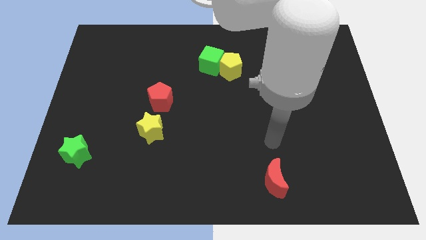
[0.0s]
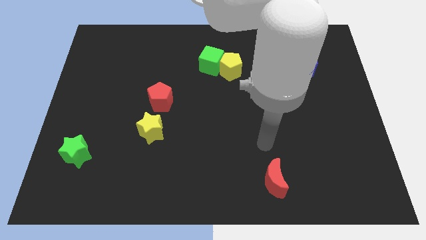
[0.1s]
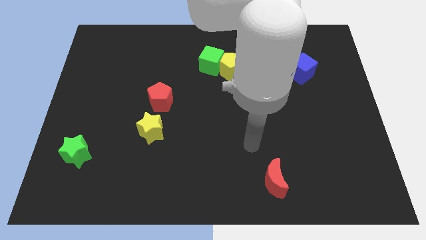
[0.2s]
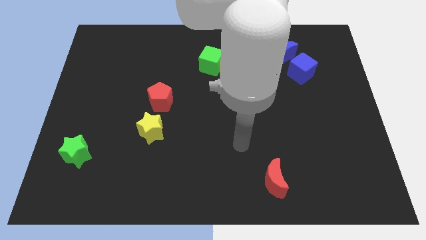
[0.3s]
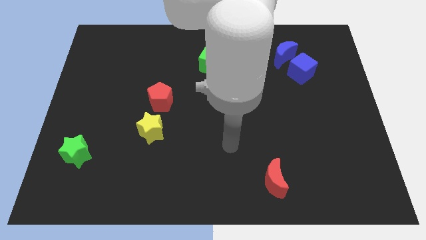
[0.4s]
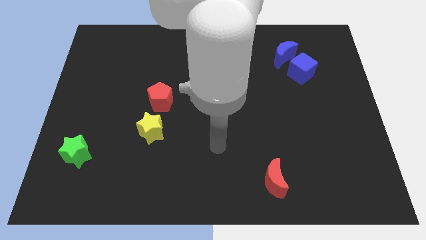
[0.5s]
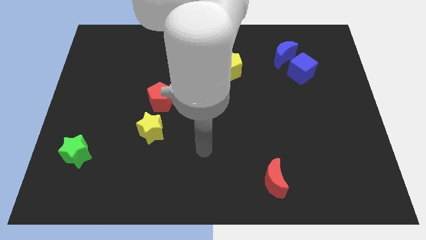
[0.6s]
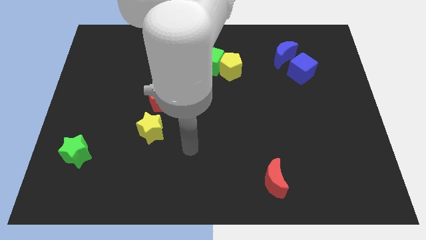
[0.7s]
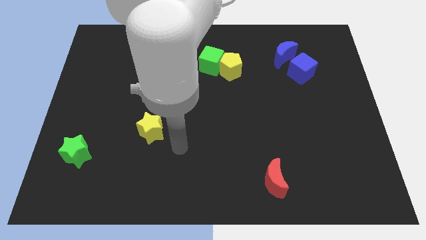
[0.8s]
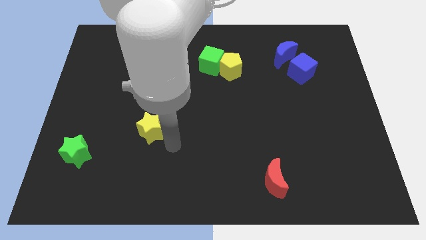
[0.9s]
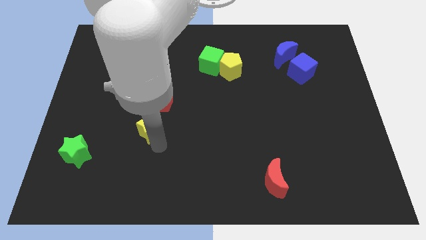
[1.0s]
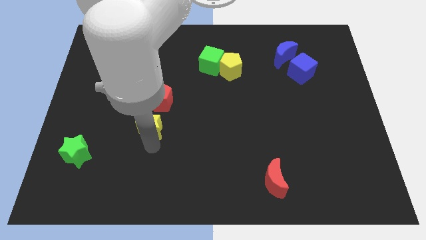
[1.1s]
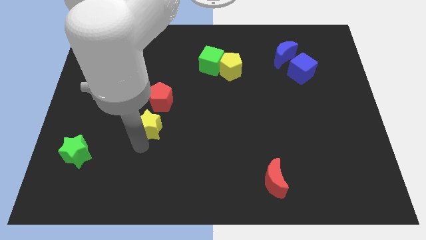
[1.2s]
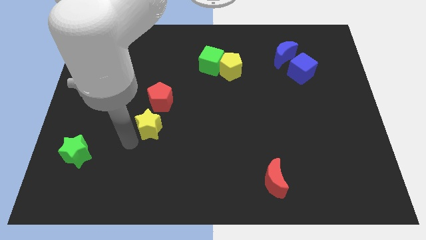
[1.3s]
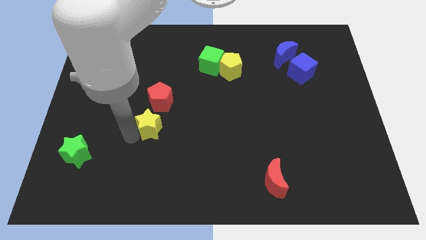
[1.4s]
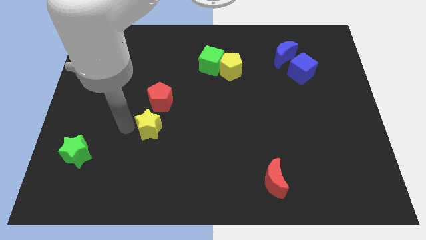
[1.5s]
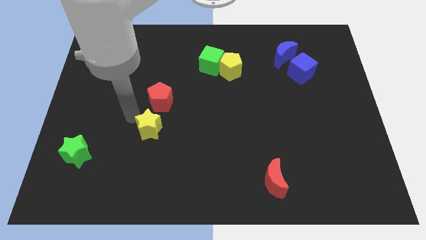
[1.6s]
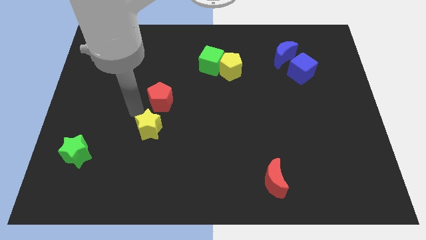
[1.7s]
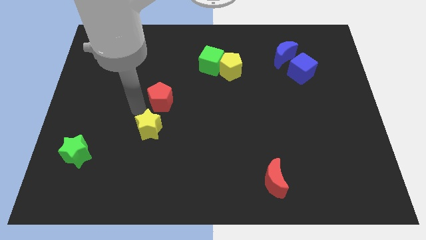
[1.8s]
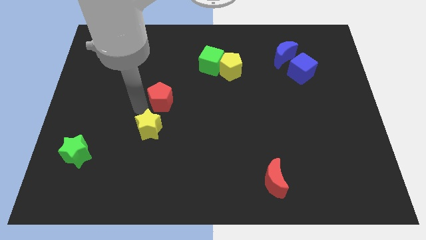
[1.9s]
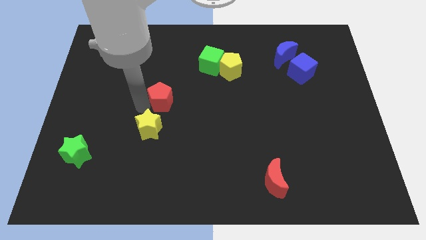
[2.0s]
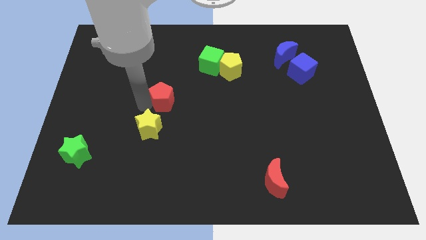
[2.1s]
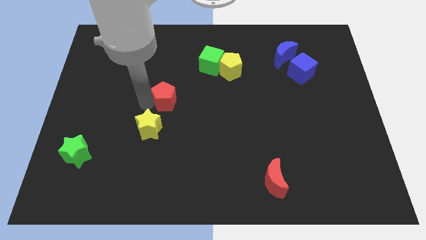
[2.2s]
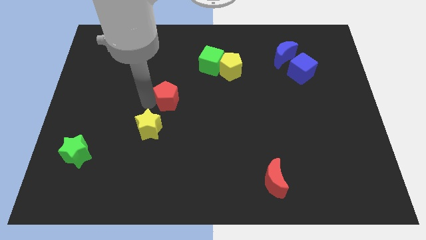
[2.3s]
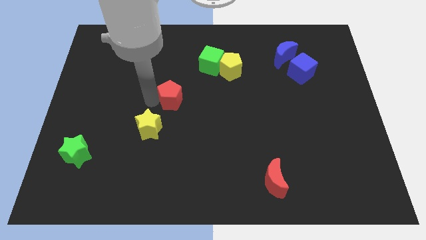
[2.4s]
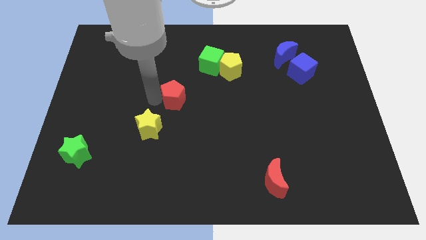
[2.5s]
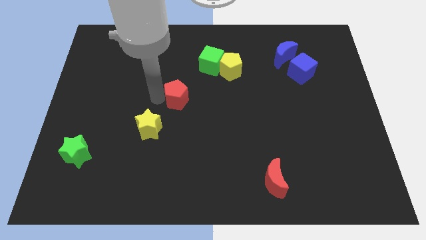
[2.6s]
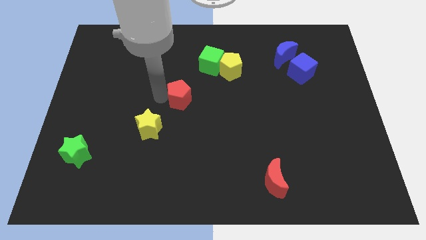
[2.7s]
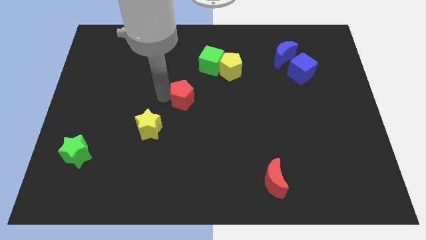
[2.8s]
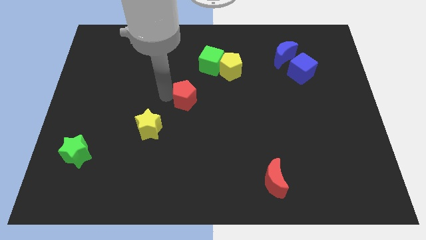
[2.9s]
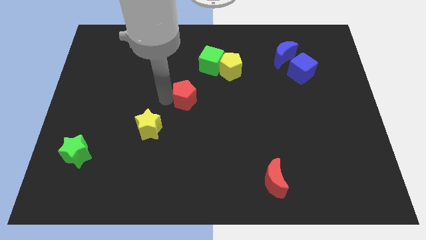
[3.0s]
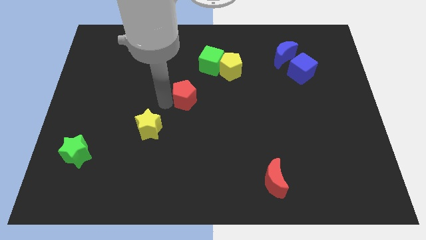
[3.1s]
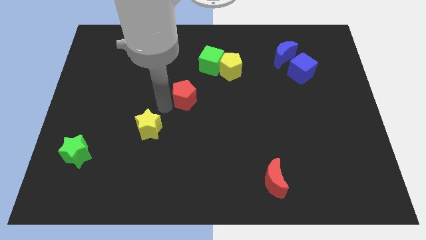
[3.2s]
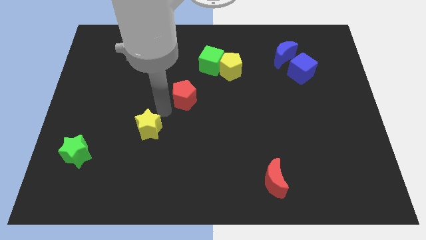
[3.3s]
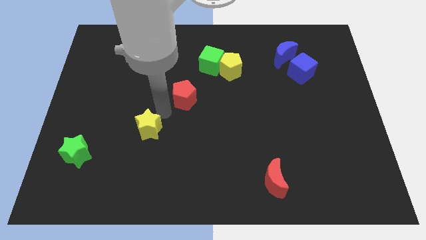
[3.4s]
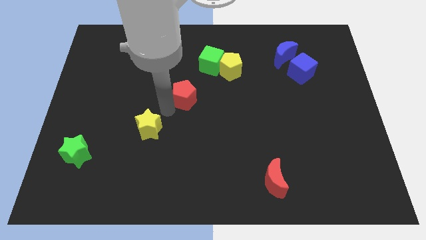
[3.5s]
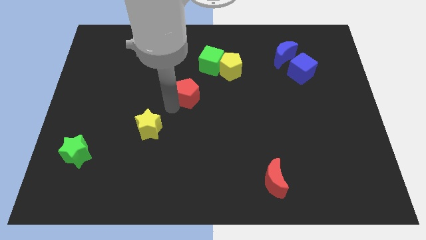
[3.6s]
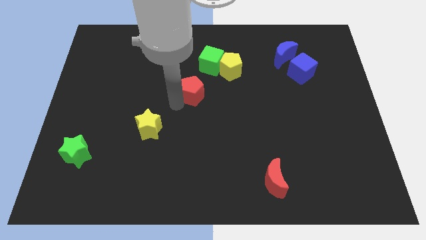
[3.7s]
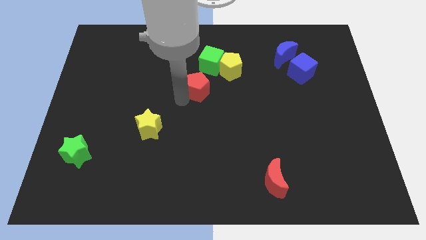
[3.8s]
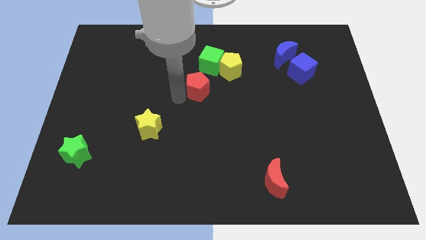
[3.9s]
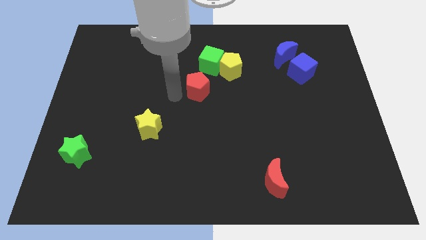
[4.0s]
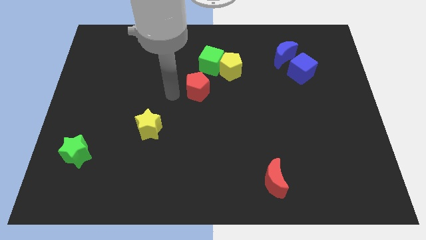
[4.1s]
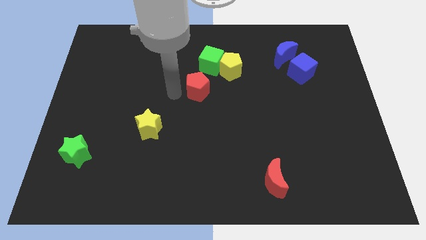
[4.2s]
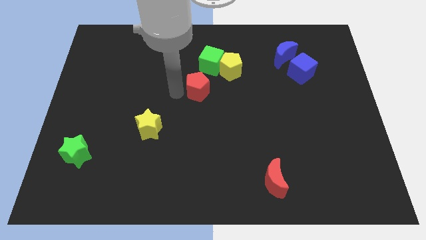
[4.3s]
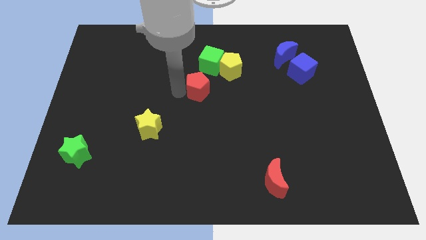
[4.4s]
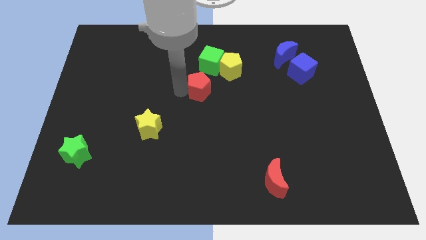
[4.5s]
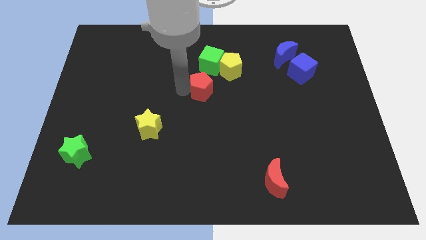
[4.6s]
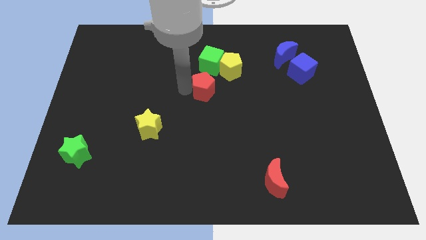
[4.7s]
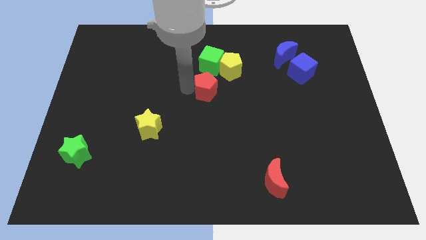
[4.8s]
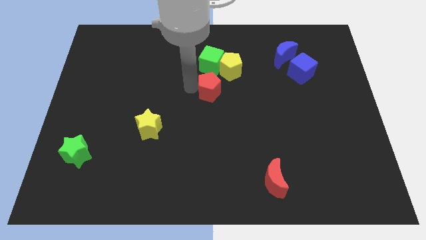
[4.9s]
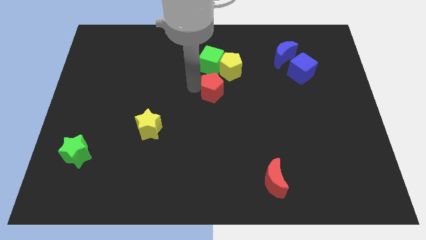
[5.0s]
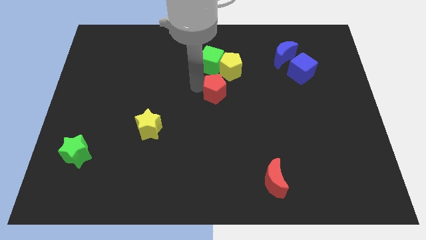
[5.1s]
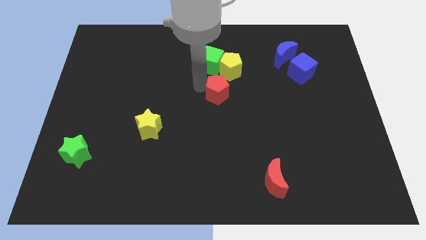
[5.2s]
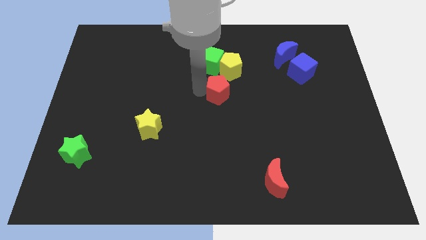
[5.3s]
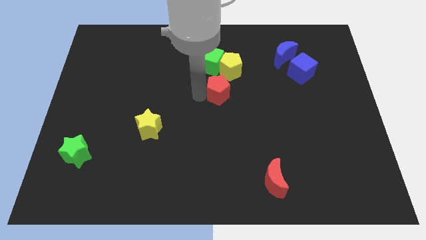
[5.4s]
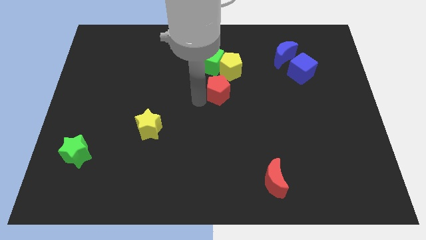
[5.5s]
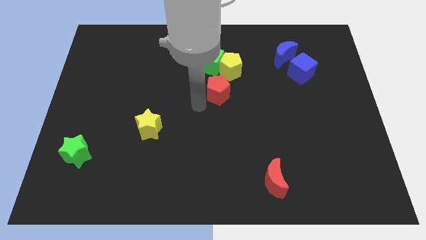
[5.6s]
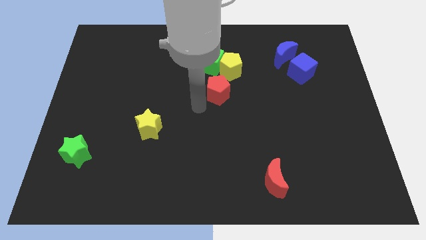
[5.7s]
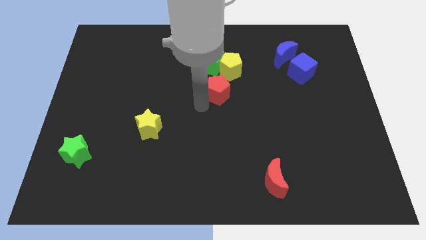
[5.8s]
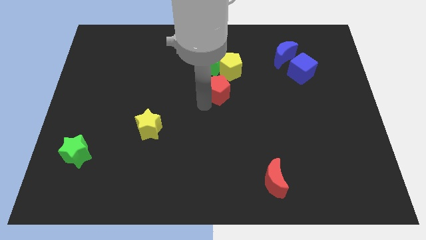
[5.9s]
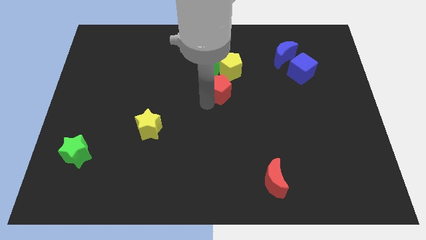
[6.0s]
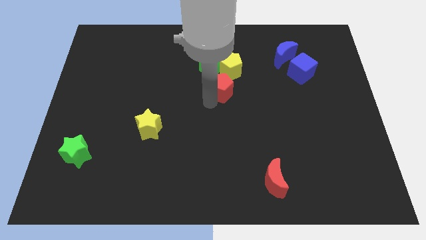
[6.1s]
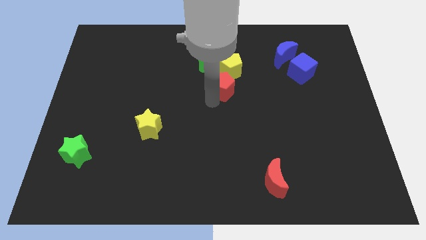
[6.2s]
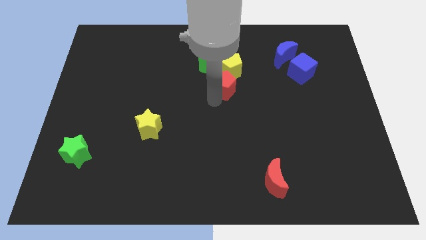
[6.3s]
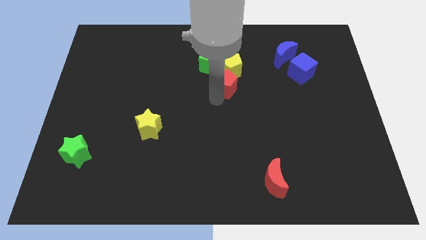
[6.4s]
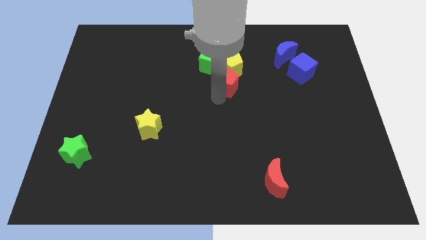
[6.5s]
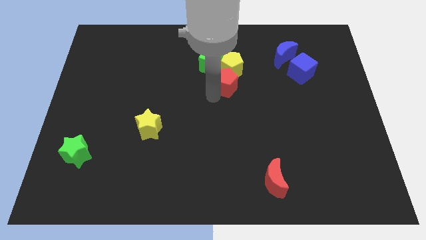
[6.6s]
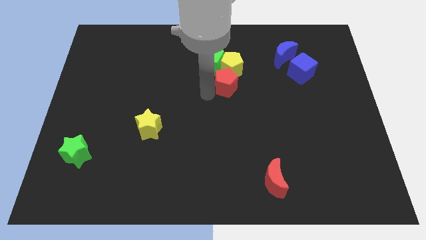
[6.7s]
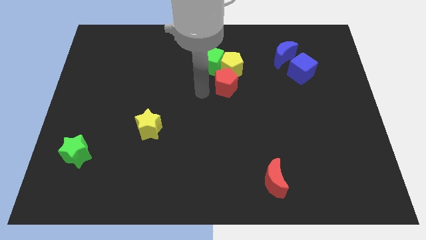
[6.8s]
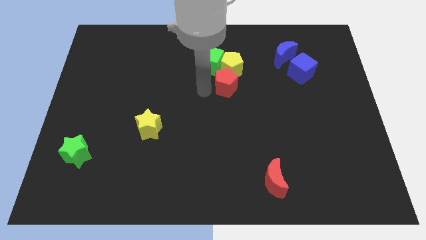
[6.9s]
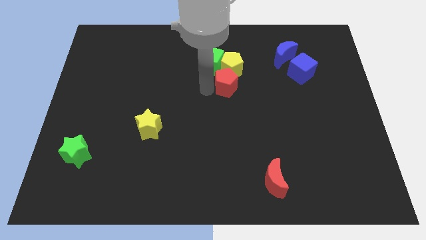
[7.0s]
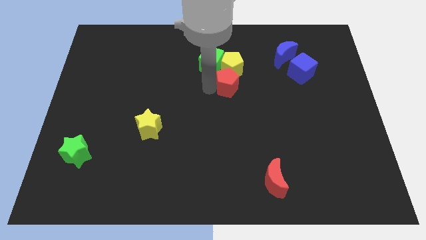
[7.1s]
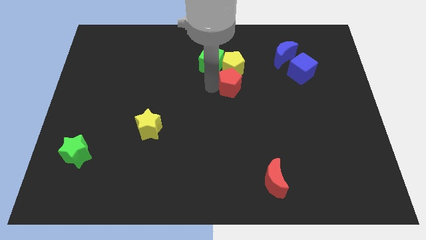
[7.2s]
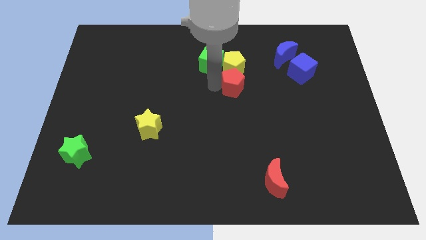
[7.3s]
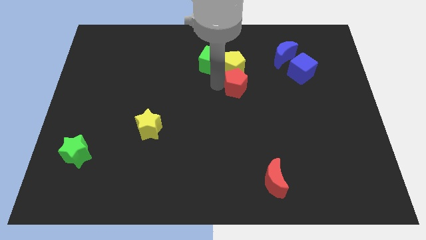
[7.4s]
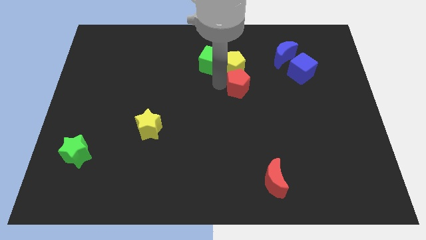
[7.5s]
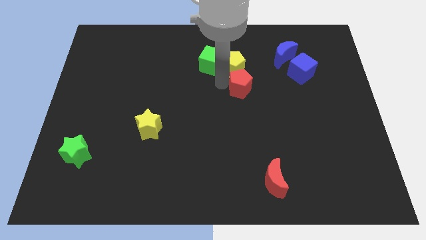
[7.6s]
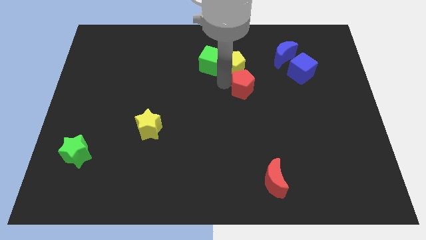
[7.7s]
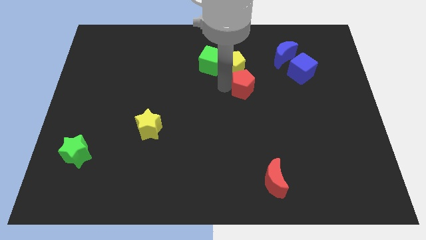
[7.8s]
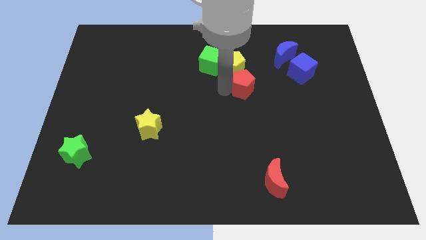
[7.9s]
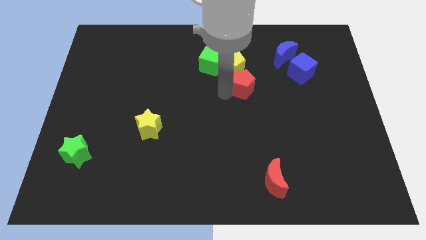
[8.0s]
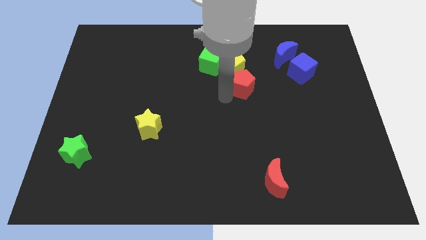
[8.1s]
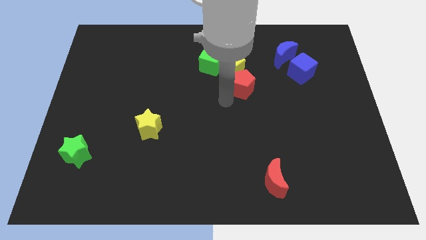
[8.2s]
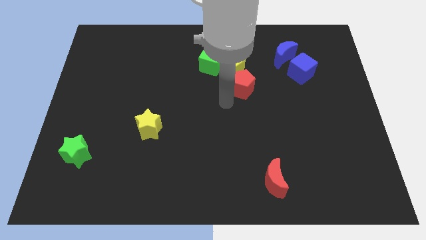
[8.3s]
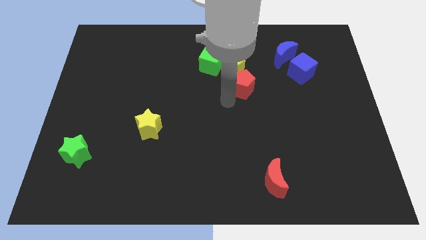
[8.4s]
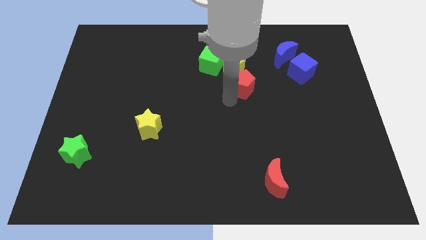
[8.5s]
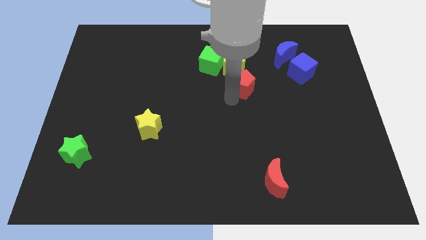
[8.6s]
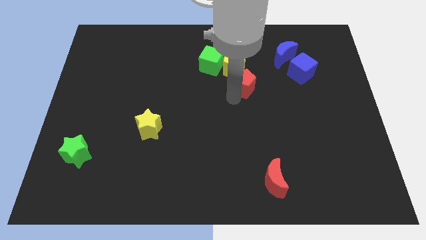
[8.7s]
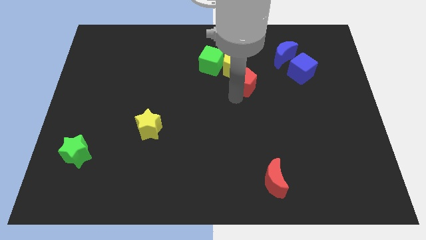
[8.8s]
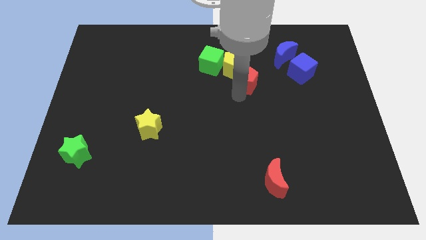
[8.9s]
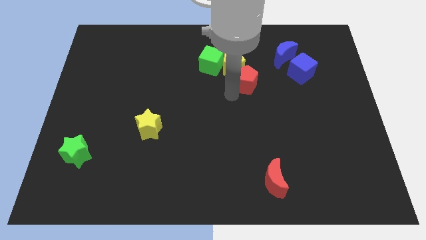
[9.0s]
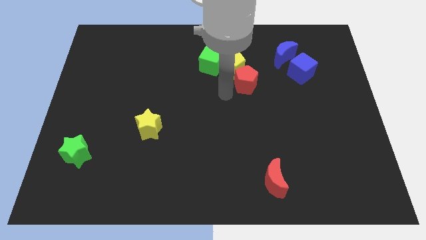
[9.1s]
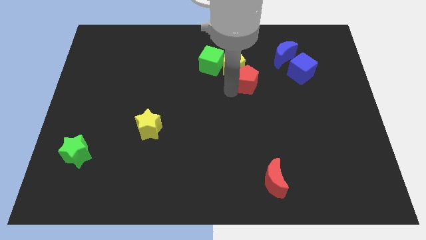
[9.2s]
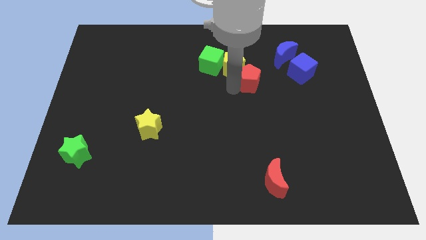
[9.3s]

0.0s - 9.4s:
push the red pentagon just right of the yellow pentagon
